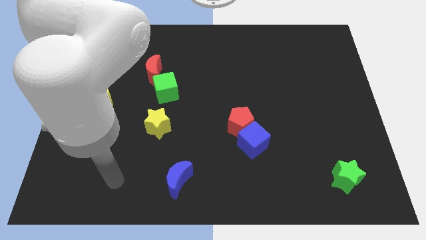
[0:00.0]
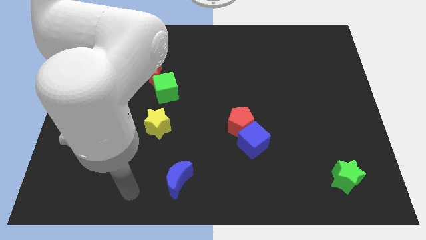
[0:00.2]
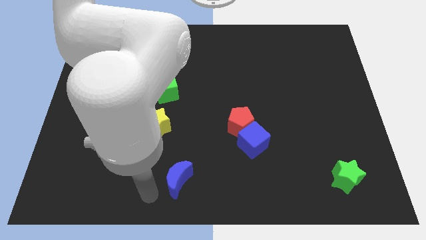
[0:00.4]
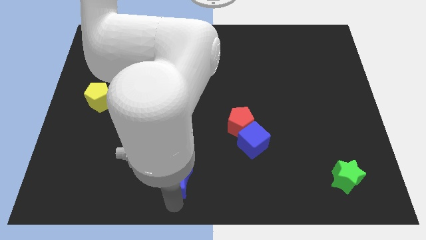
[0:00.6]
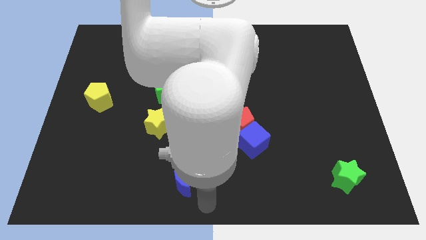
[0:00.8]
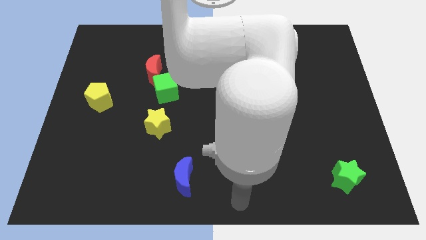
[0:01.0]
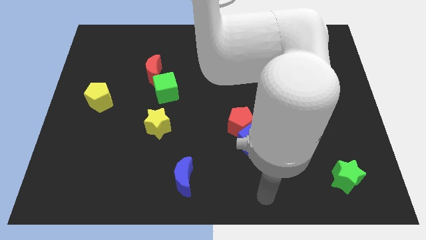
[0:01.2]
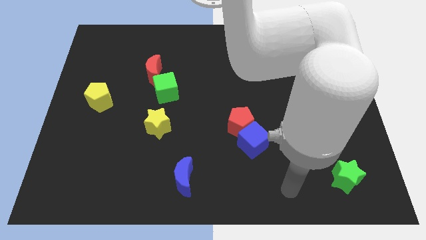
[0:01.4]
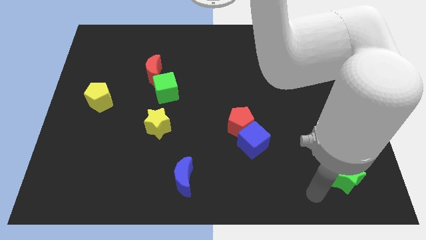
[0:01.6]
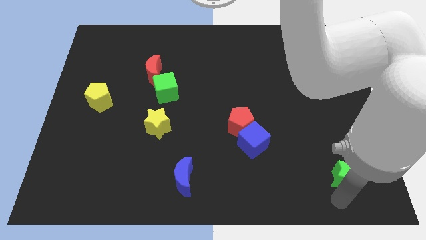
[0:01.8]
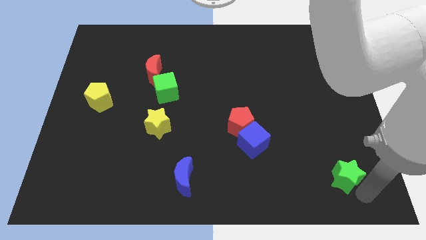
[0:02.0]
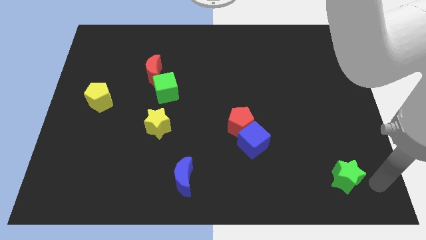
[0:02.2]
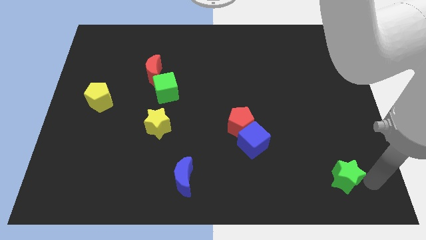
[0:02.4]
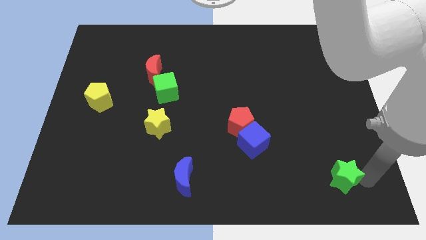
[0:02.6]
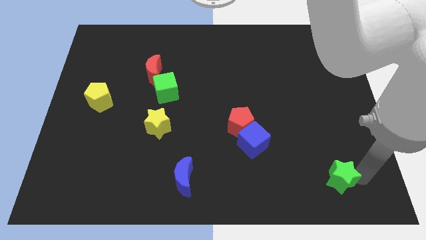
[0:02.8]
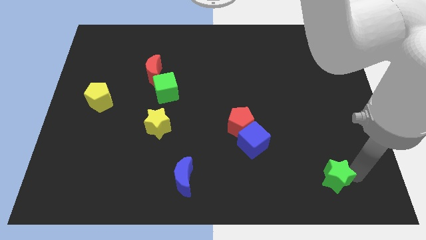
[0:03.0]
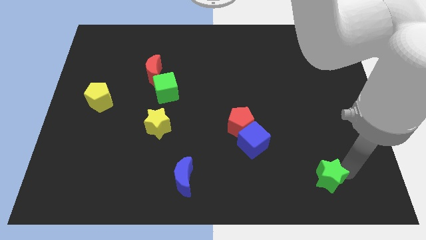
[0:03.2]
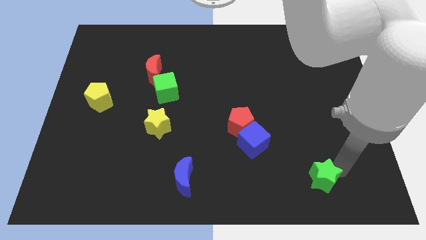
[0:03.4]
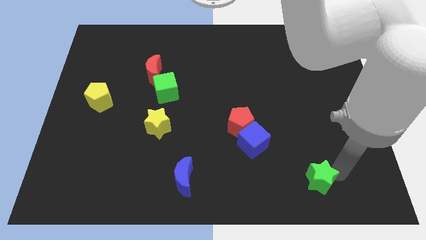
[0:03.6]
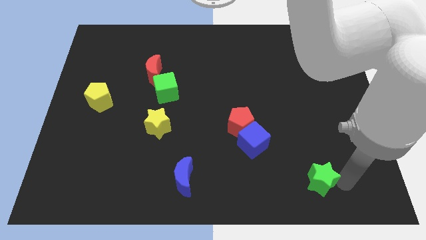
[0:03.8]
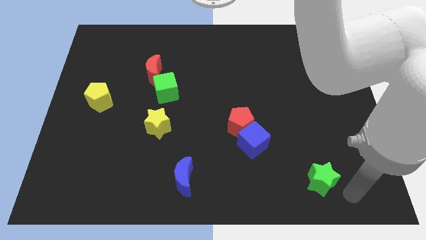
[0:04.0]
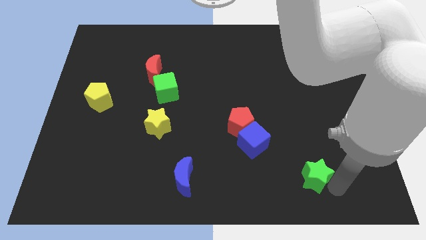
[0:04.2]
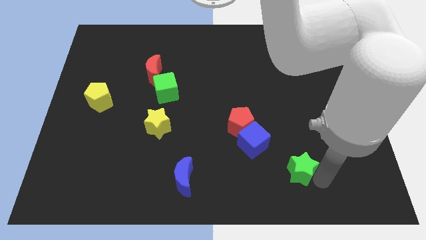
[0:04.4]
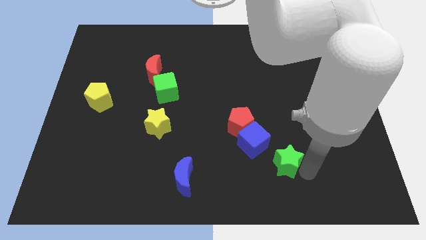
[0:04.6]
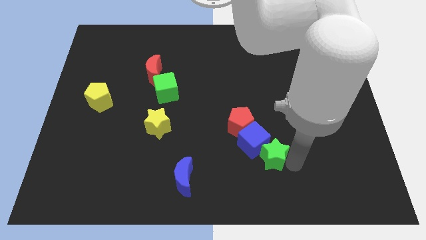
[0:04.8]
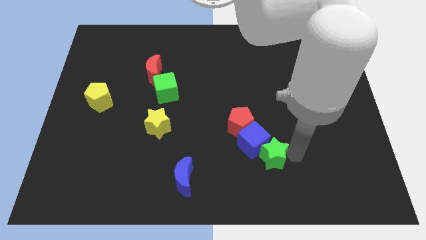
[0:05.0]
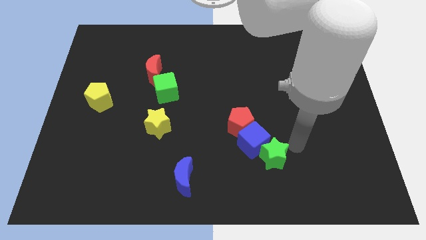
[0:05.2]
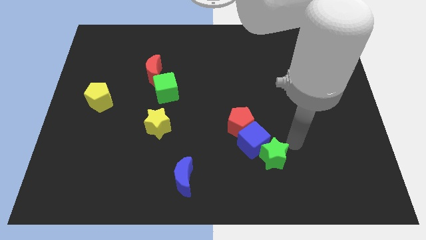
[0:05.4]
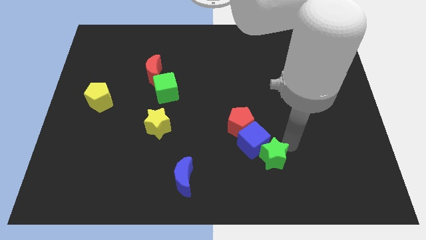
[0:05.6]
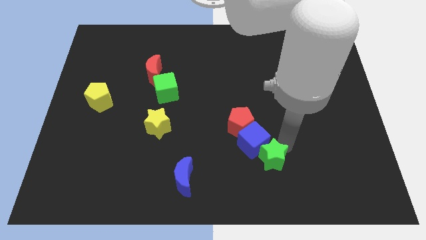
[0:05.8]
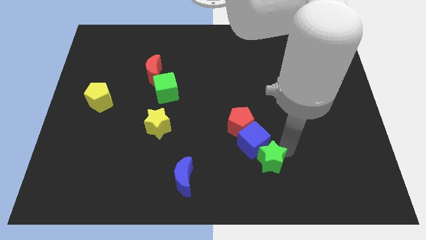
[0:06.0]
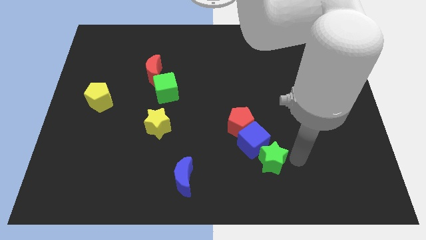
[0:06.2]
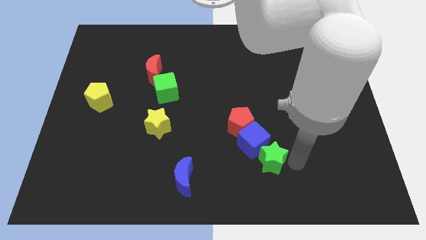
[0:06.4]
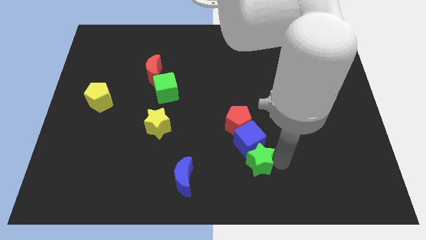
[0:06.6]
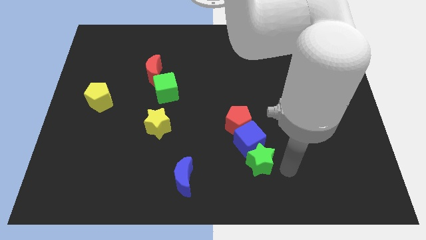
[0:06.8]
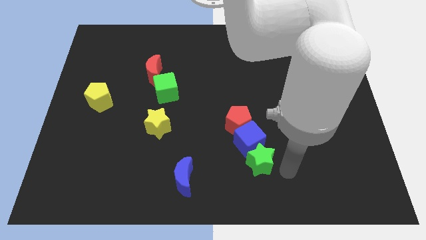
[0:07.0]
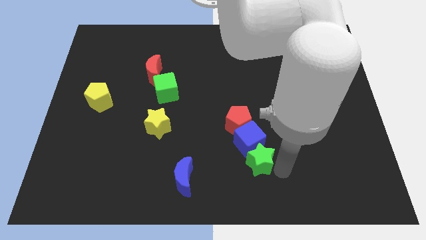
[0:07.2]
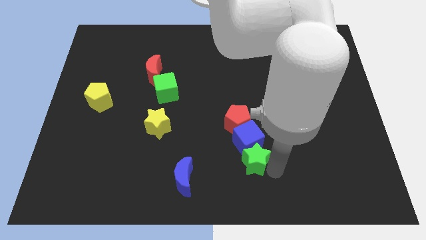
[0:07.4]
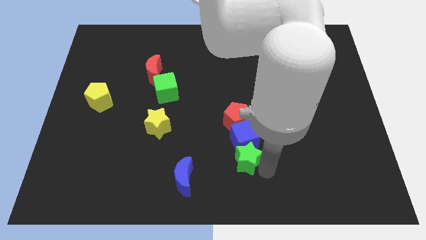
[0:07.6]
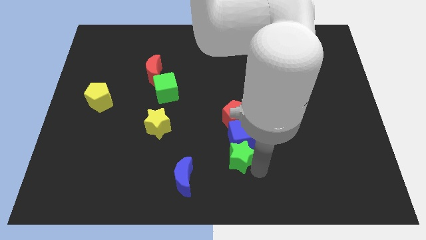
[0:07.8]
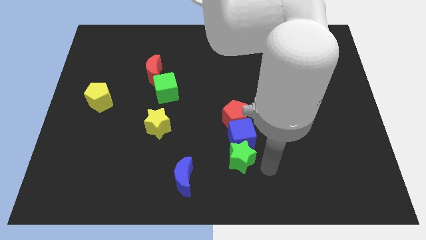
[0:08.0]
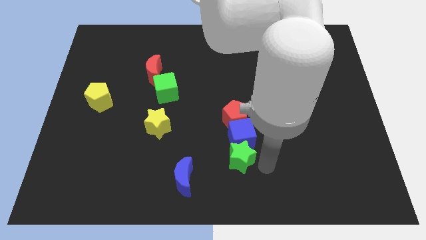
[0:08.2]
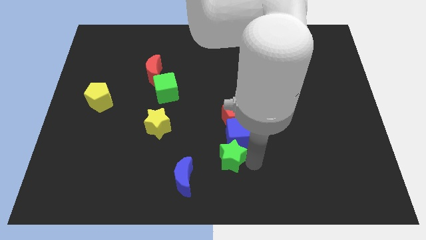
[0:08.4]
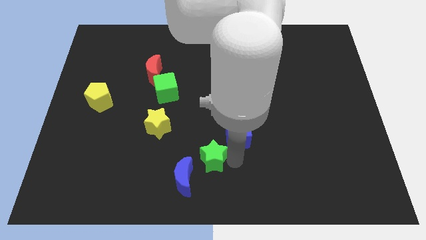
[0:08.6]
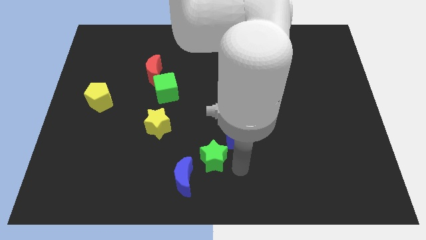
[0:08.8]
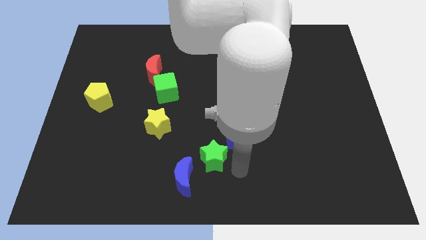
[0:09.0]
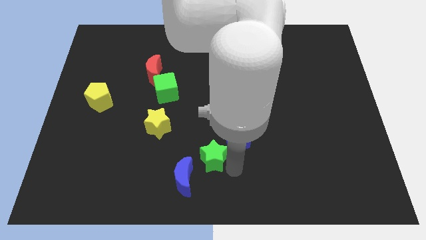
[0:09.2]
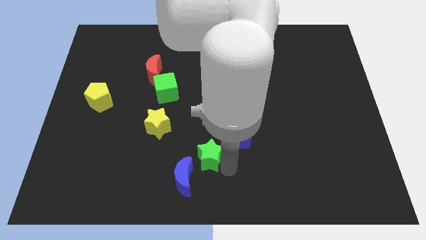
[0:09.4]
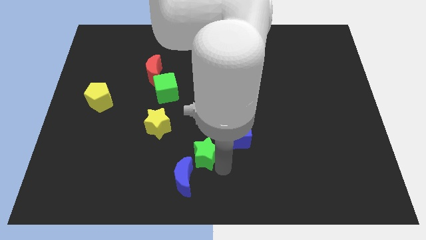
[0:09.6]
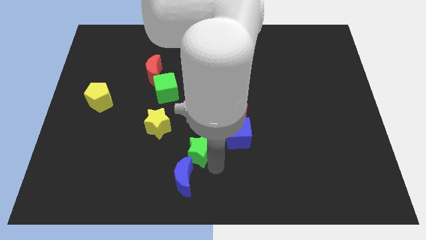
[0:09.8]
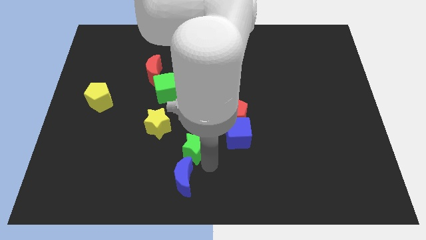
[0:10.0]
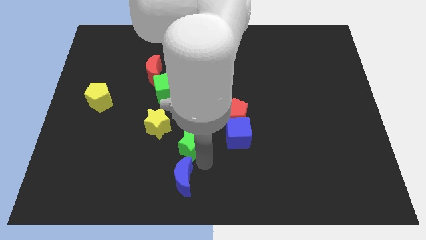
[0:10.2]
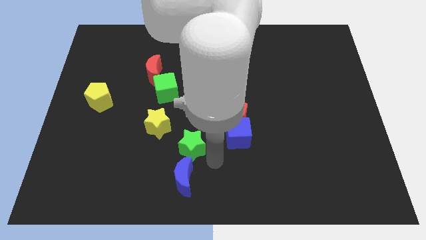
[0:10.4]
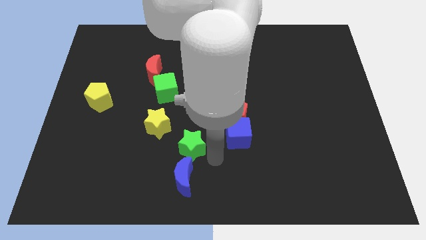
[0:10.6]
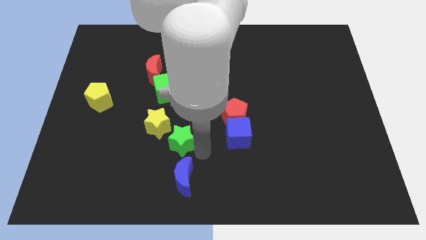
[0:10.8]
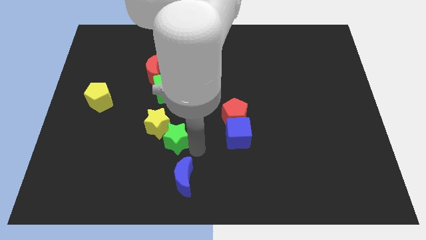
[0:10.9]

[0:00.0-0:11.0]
move the green star close to the yellow star

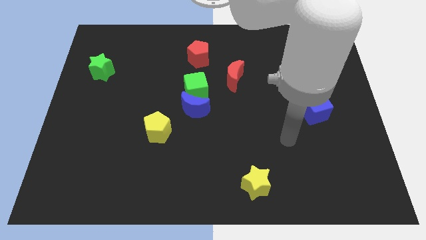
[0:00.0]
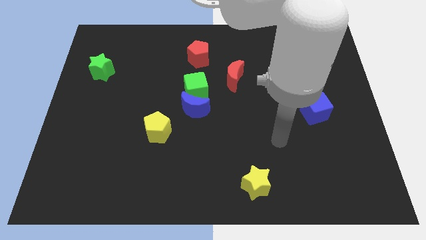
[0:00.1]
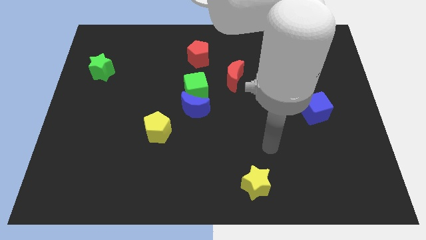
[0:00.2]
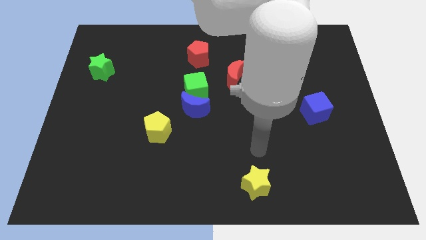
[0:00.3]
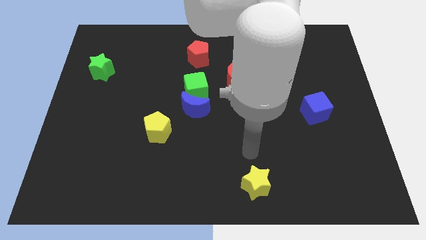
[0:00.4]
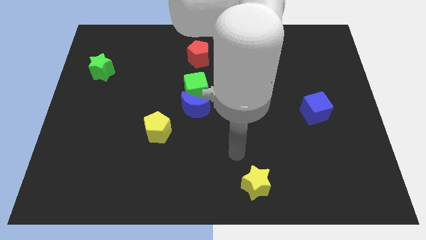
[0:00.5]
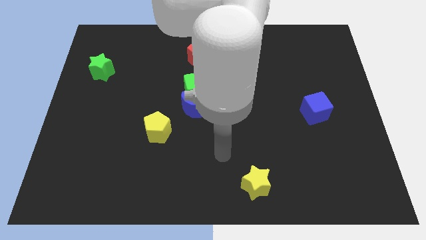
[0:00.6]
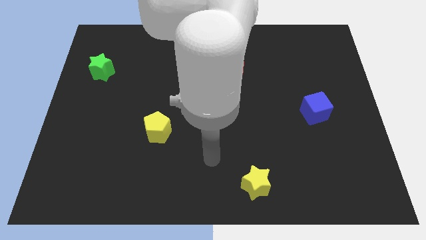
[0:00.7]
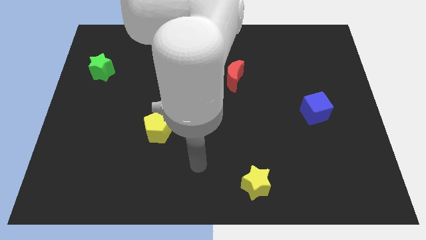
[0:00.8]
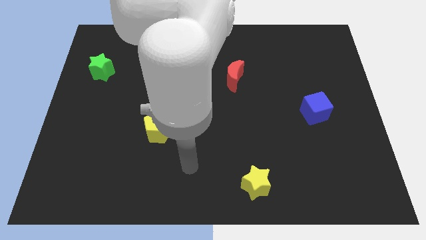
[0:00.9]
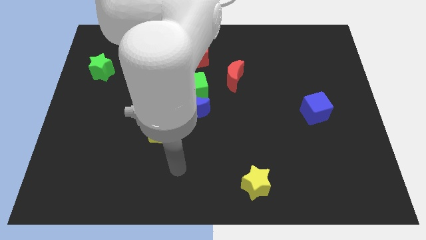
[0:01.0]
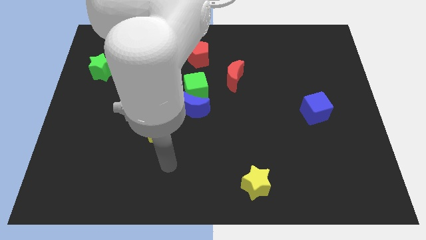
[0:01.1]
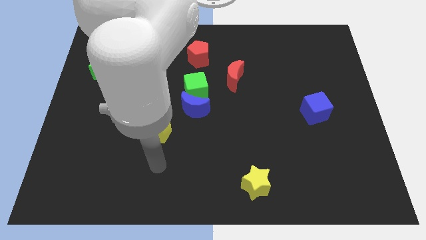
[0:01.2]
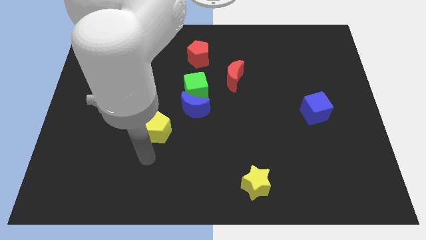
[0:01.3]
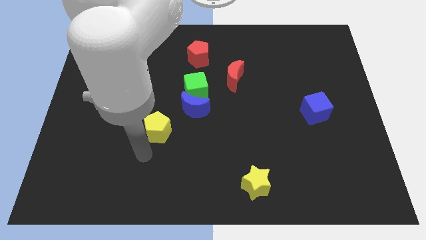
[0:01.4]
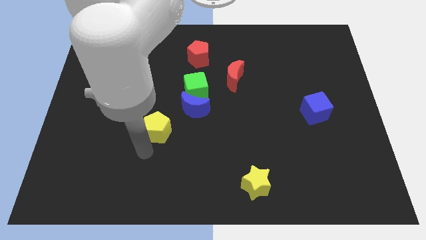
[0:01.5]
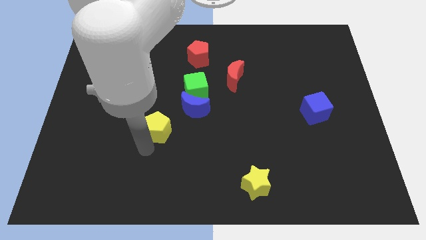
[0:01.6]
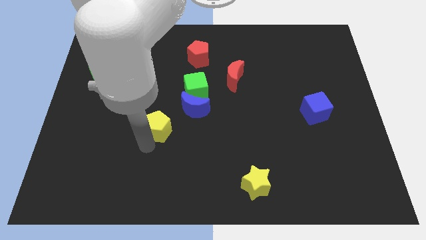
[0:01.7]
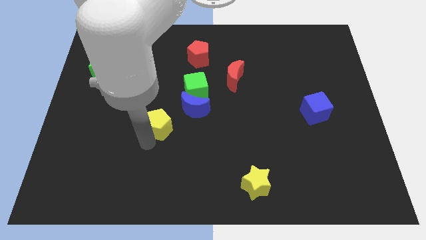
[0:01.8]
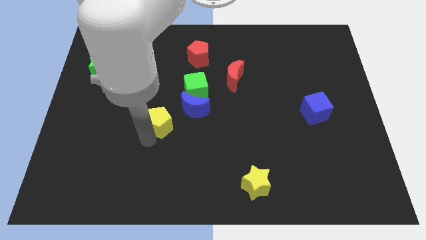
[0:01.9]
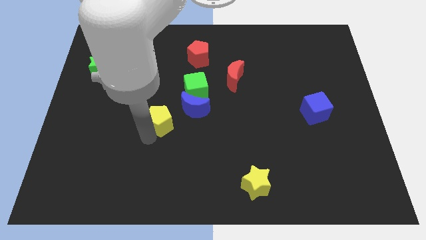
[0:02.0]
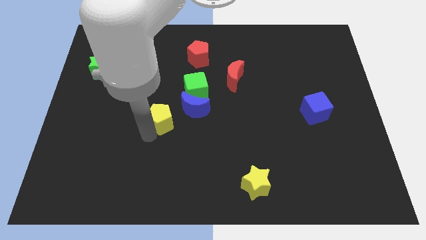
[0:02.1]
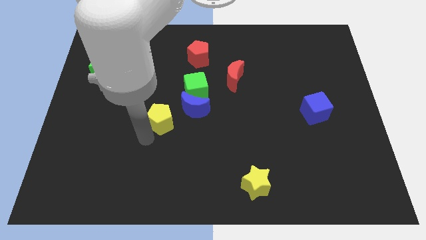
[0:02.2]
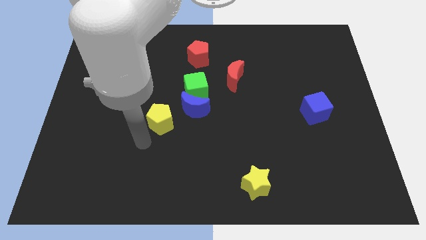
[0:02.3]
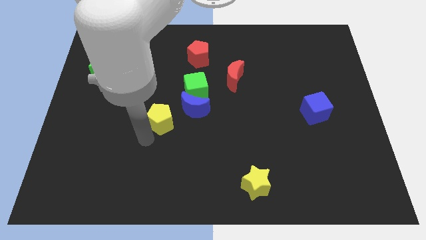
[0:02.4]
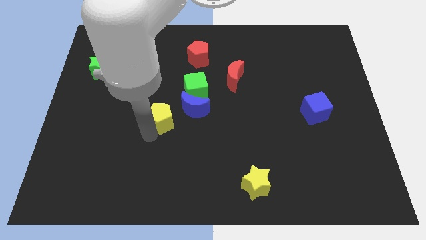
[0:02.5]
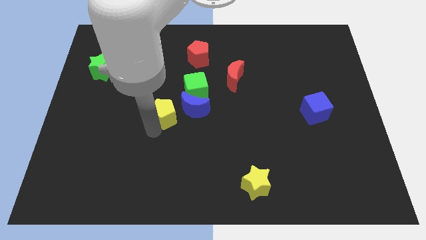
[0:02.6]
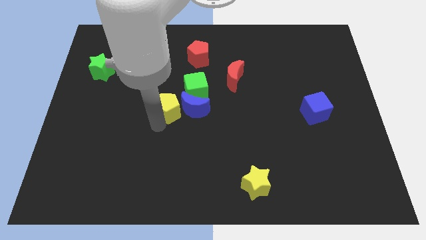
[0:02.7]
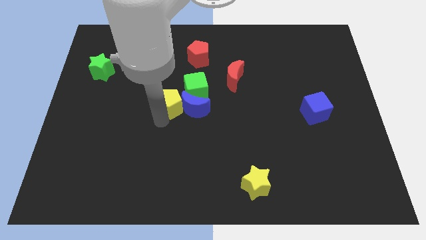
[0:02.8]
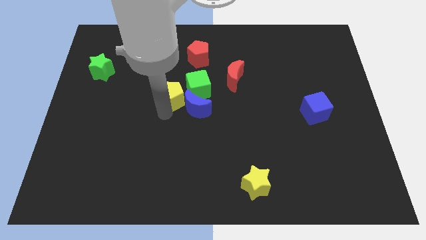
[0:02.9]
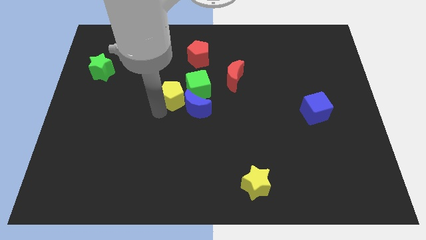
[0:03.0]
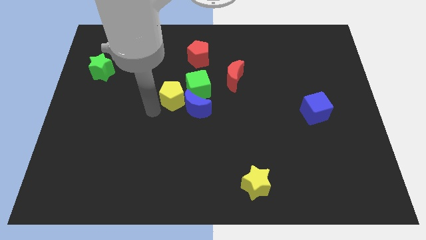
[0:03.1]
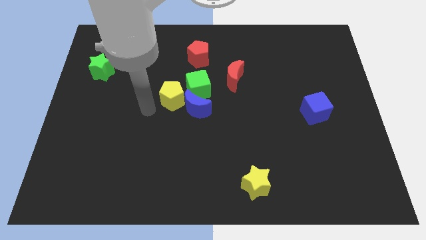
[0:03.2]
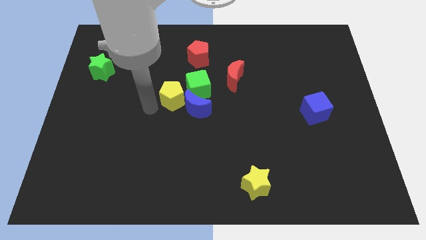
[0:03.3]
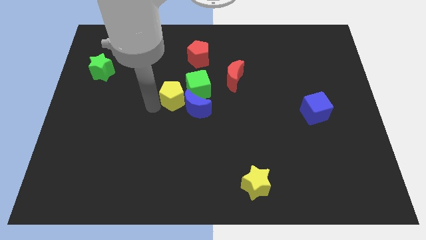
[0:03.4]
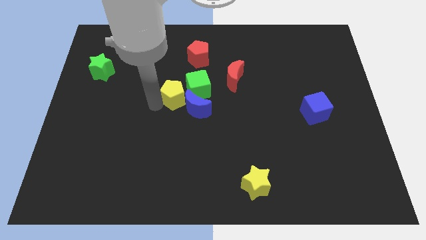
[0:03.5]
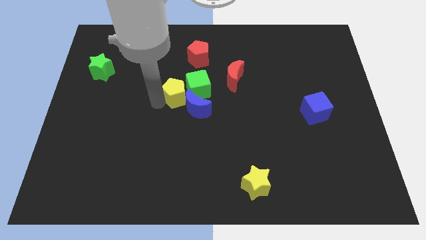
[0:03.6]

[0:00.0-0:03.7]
move the yellow pentagon towards the green cube
